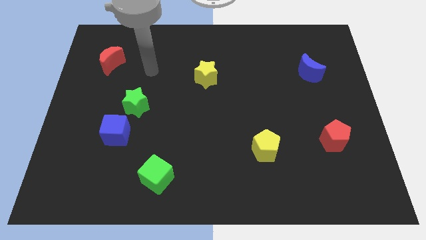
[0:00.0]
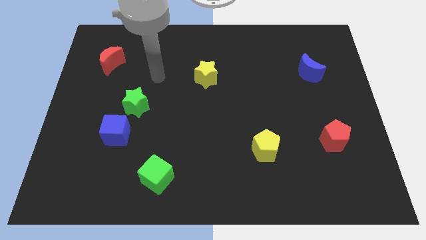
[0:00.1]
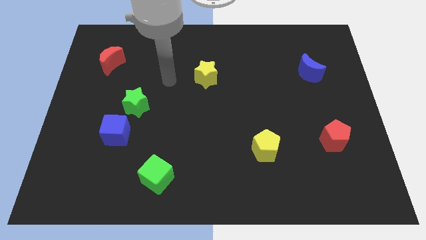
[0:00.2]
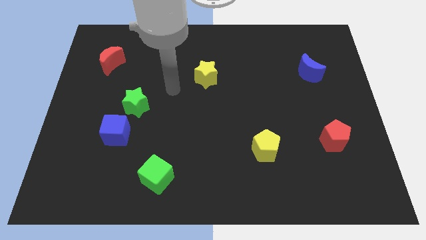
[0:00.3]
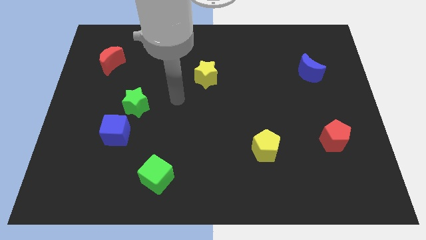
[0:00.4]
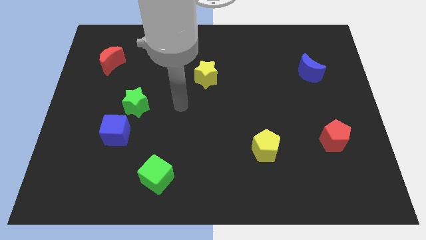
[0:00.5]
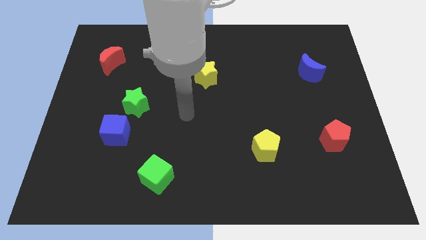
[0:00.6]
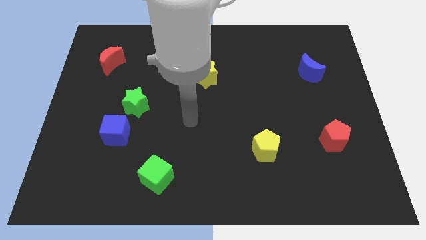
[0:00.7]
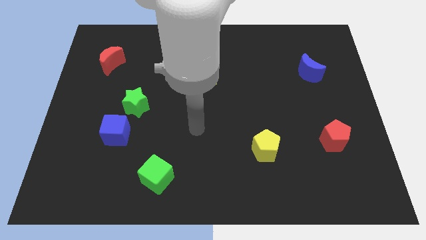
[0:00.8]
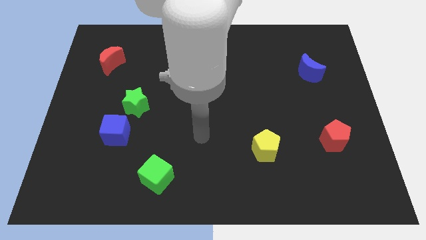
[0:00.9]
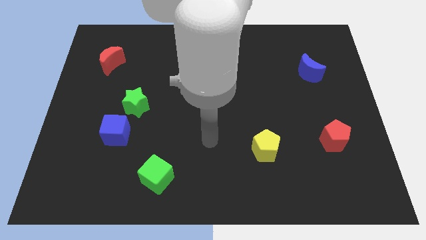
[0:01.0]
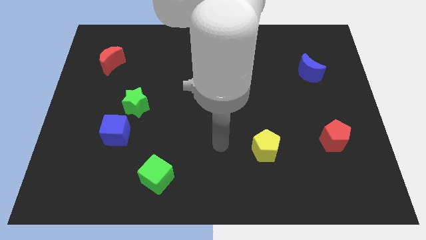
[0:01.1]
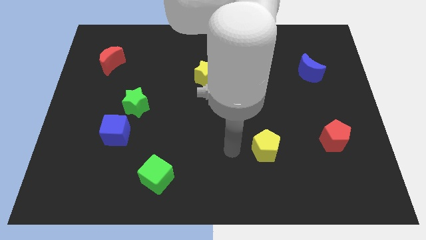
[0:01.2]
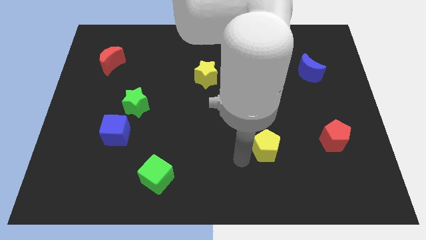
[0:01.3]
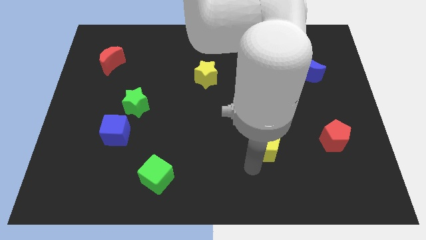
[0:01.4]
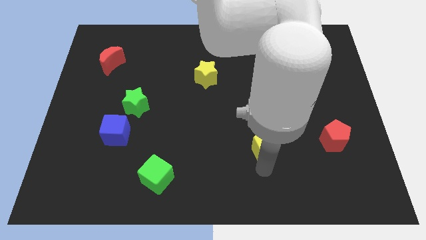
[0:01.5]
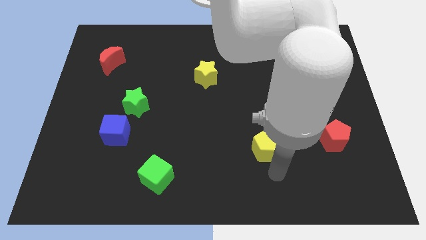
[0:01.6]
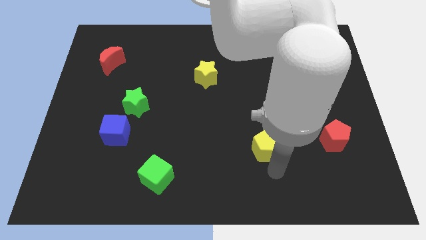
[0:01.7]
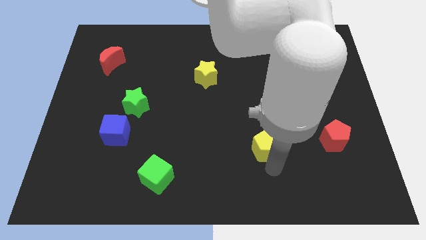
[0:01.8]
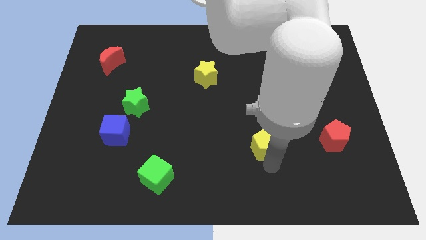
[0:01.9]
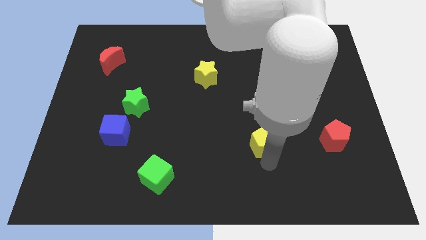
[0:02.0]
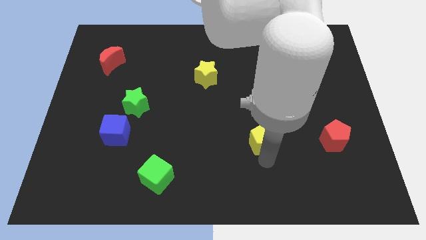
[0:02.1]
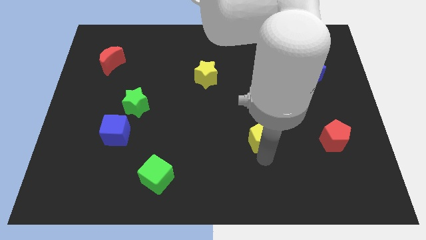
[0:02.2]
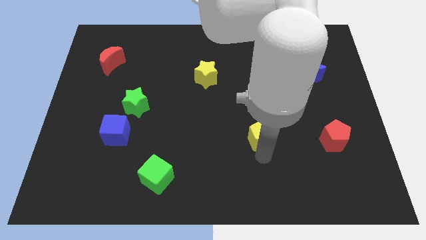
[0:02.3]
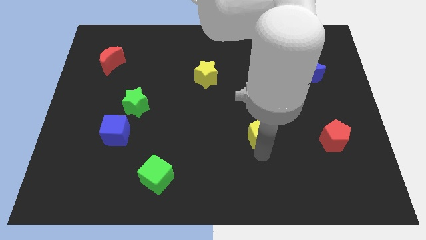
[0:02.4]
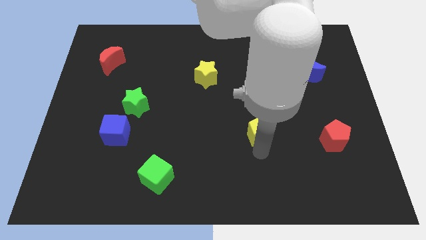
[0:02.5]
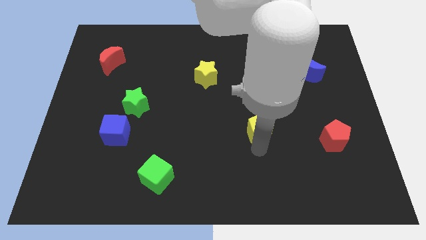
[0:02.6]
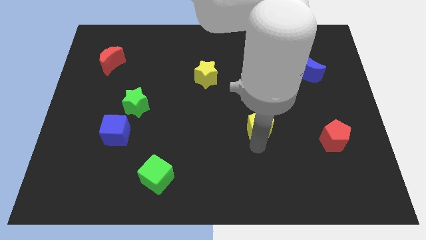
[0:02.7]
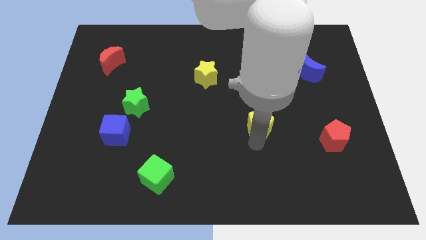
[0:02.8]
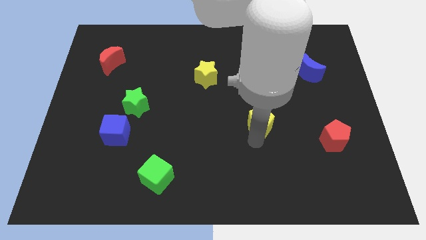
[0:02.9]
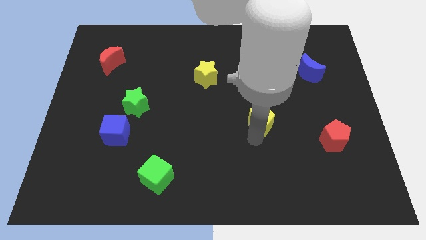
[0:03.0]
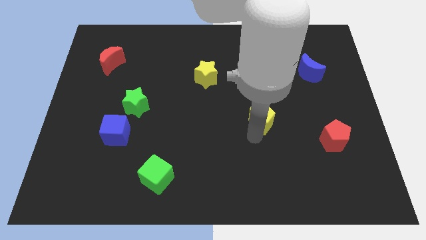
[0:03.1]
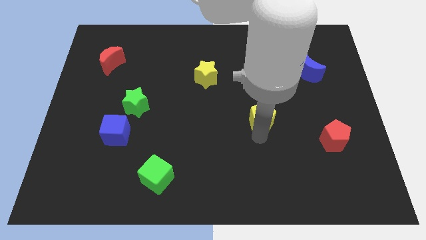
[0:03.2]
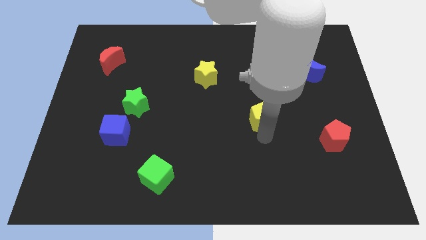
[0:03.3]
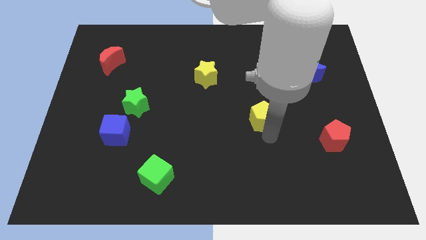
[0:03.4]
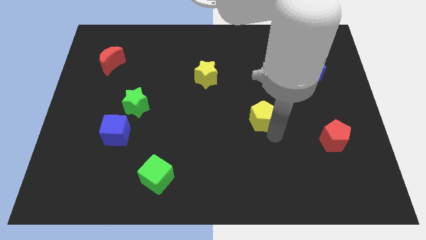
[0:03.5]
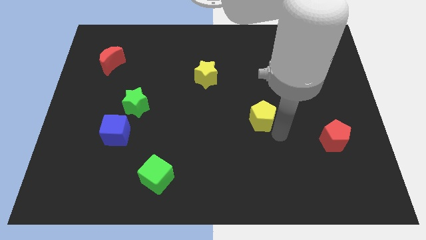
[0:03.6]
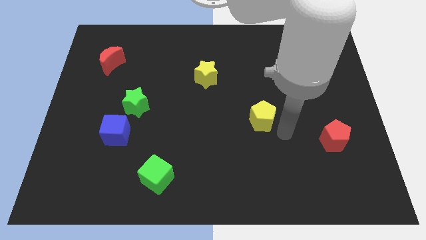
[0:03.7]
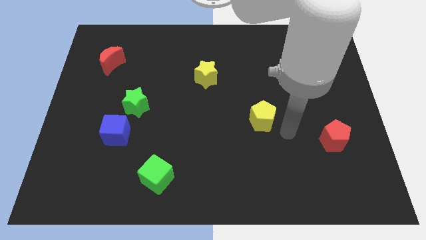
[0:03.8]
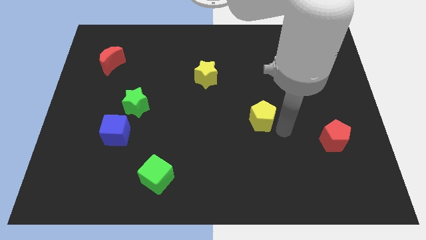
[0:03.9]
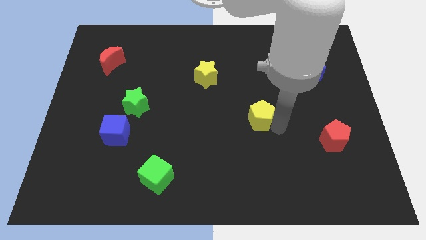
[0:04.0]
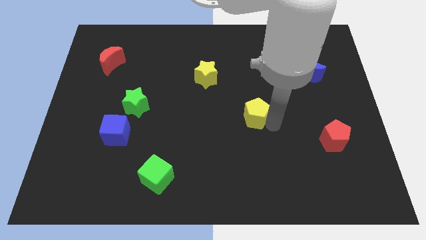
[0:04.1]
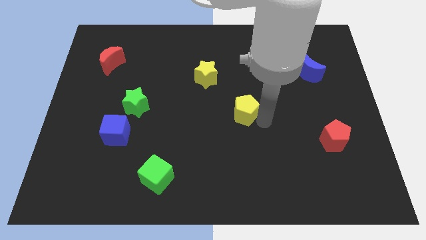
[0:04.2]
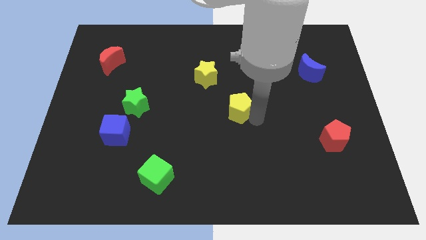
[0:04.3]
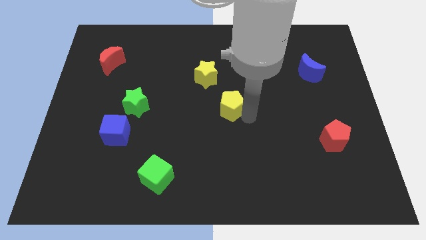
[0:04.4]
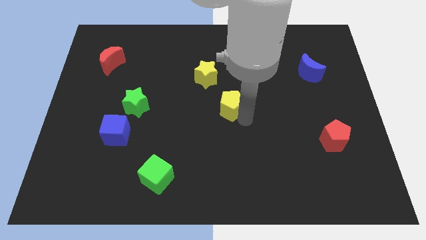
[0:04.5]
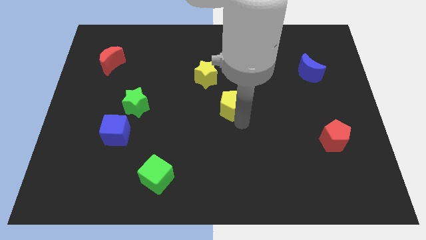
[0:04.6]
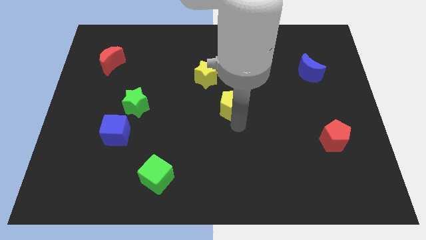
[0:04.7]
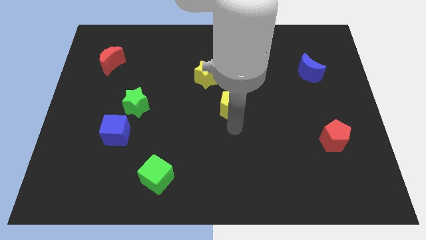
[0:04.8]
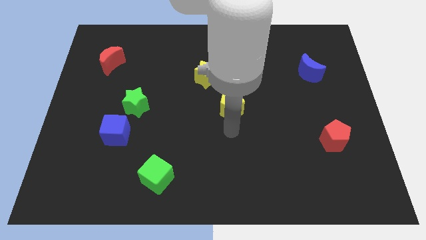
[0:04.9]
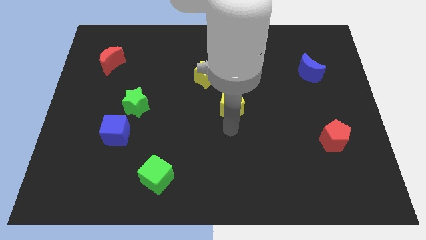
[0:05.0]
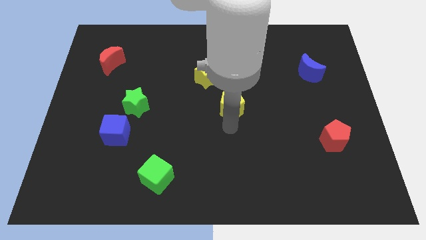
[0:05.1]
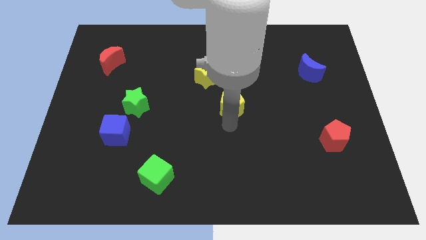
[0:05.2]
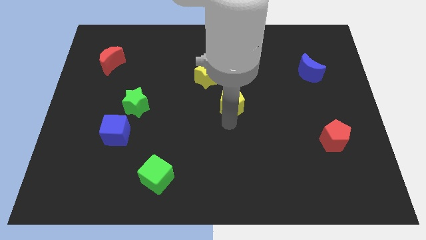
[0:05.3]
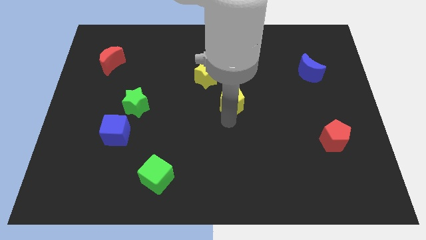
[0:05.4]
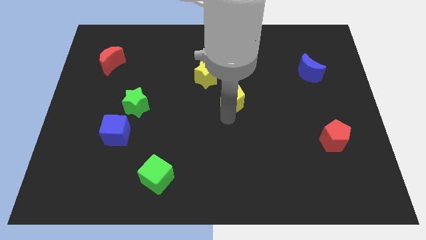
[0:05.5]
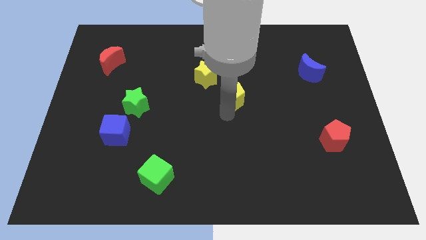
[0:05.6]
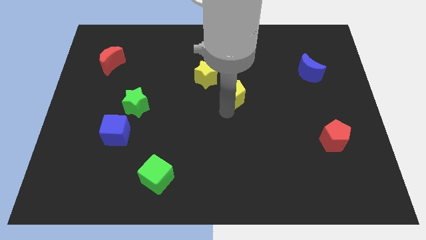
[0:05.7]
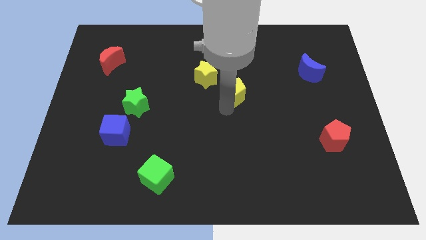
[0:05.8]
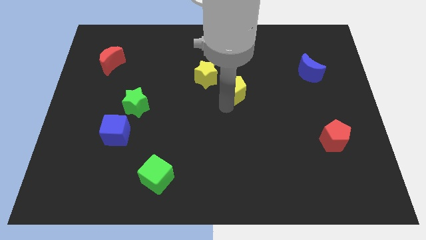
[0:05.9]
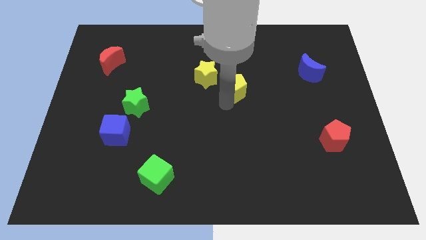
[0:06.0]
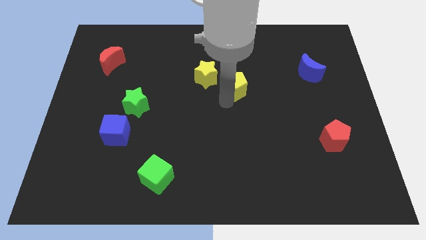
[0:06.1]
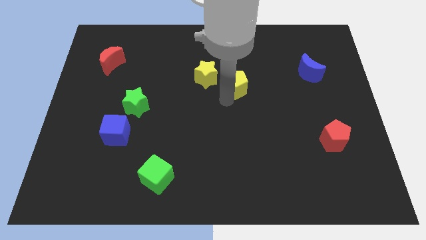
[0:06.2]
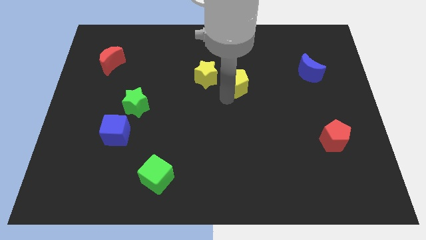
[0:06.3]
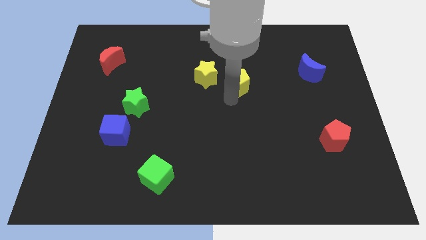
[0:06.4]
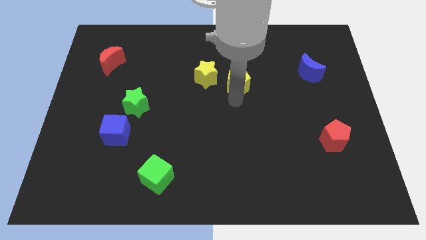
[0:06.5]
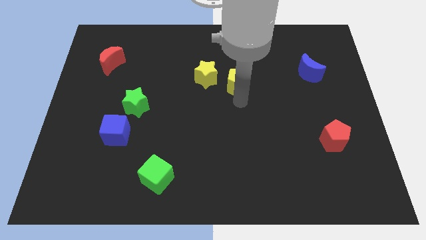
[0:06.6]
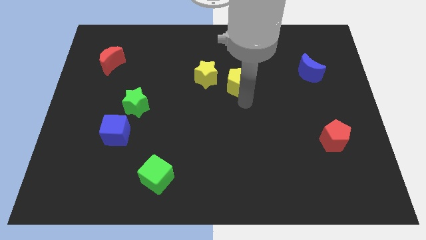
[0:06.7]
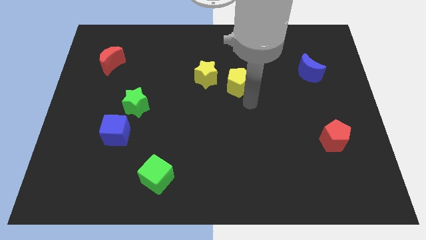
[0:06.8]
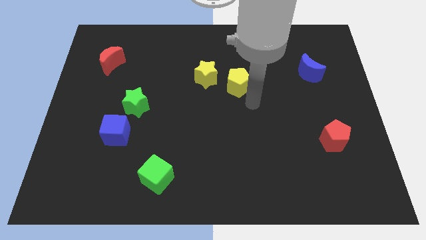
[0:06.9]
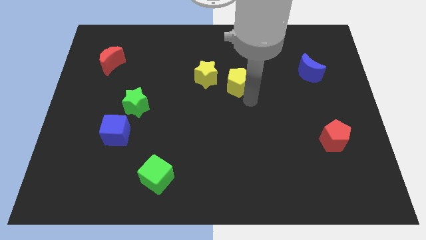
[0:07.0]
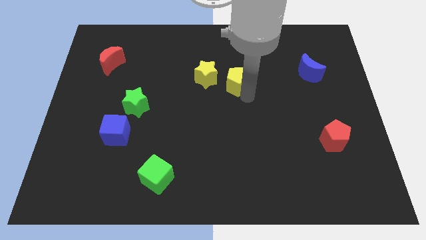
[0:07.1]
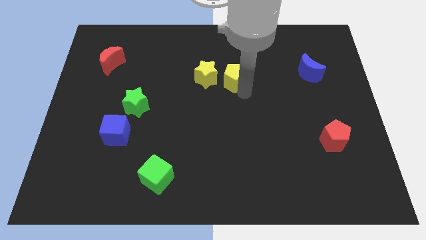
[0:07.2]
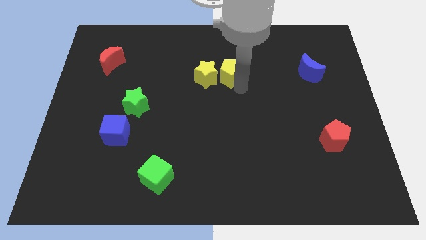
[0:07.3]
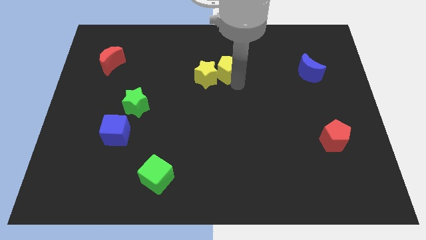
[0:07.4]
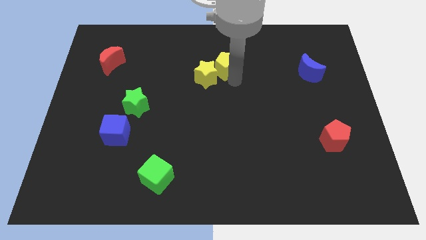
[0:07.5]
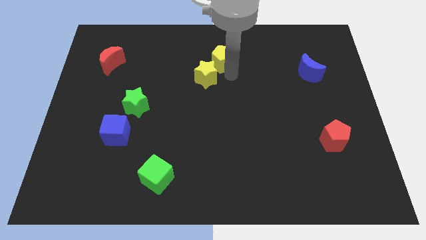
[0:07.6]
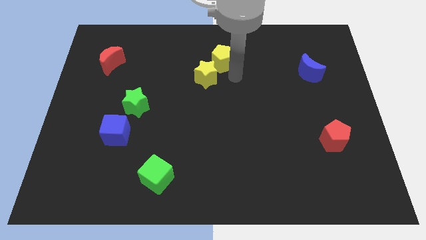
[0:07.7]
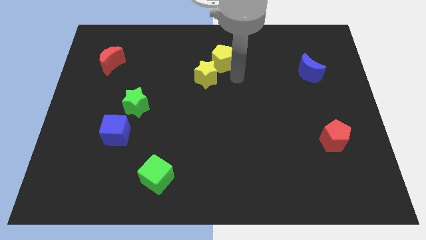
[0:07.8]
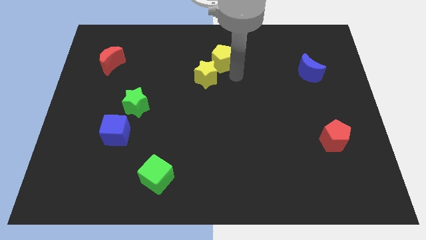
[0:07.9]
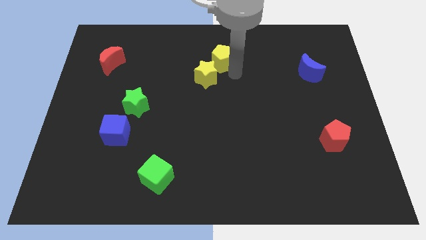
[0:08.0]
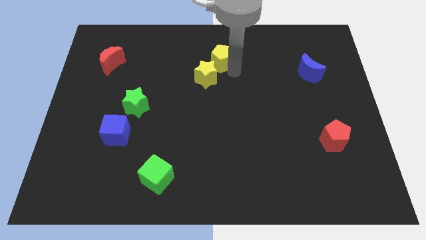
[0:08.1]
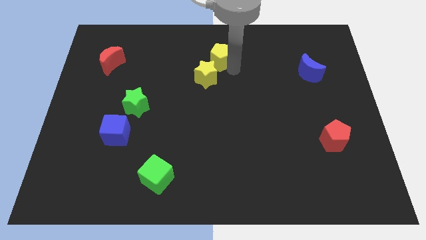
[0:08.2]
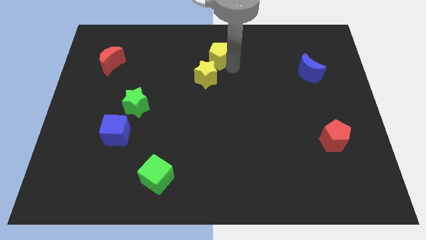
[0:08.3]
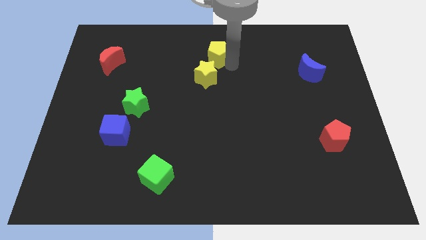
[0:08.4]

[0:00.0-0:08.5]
put the yellow pentagon to the top side

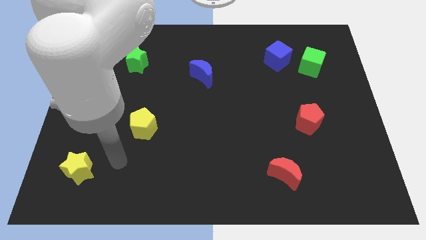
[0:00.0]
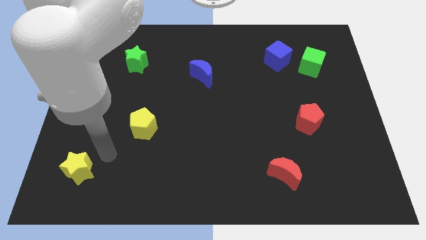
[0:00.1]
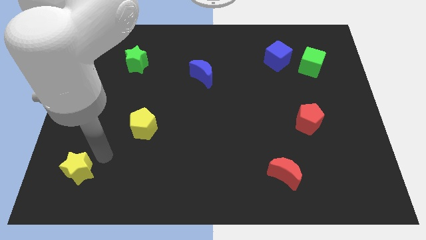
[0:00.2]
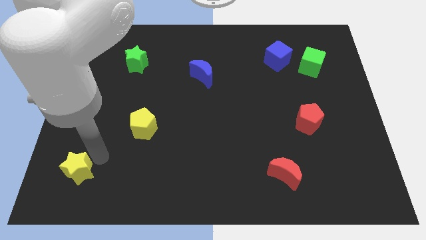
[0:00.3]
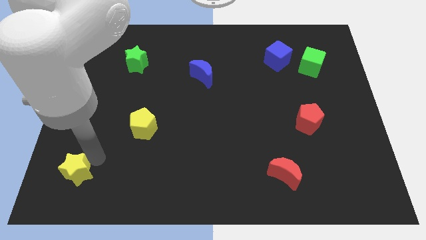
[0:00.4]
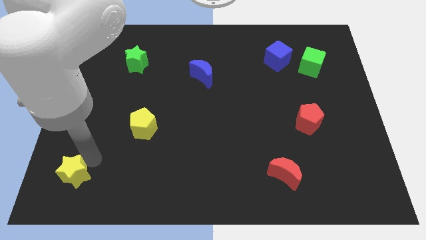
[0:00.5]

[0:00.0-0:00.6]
put the yellow star to the bottom left
